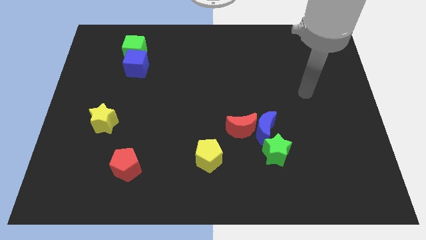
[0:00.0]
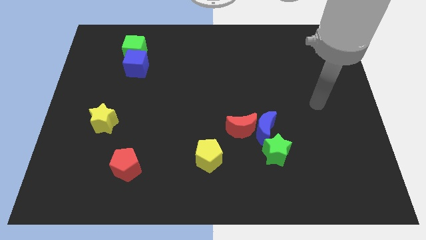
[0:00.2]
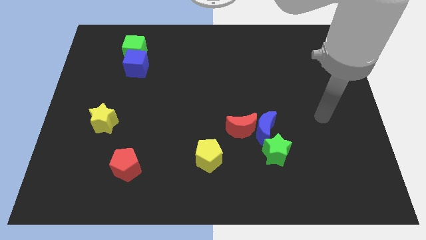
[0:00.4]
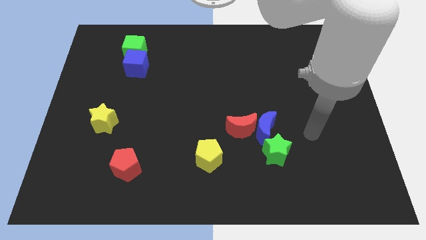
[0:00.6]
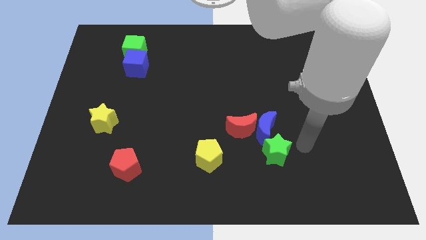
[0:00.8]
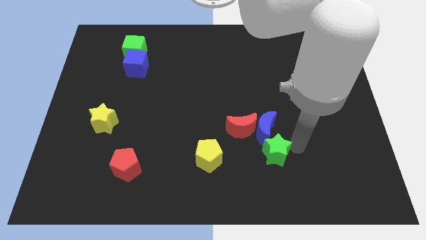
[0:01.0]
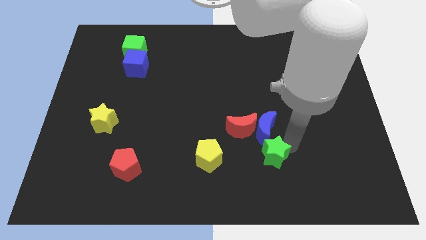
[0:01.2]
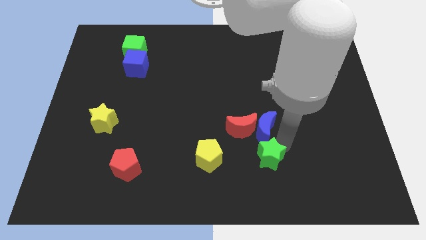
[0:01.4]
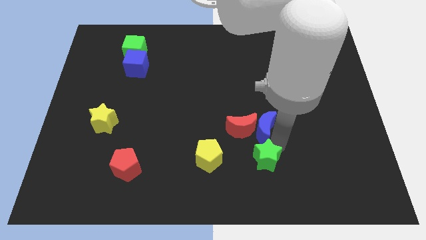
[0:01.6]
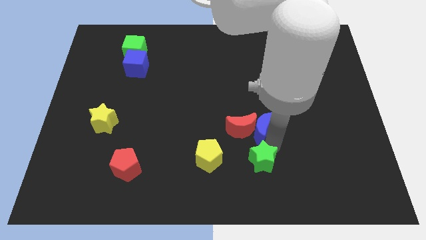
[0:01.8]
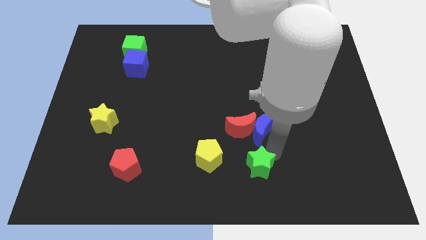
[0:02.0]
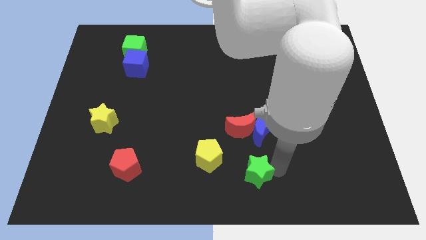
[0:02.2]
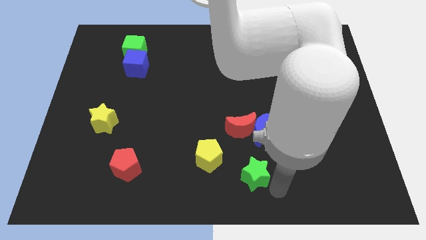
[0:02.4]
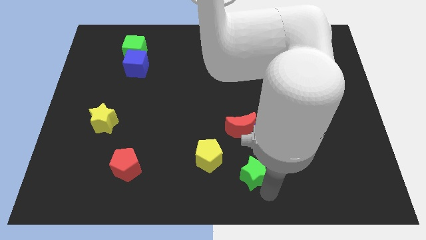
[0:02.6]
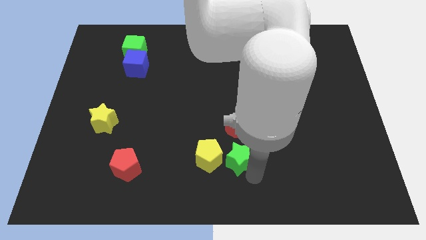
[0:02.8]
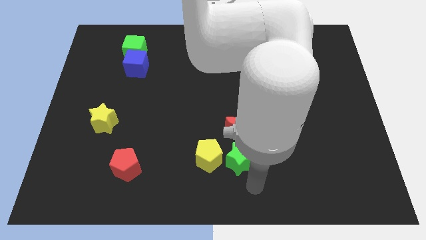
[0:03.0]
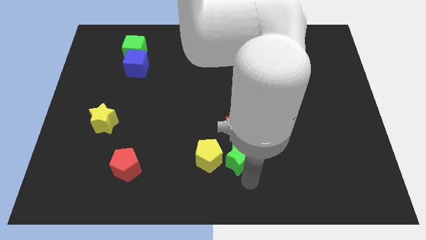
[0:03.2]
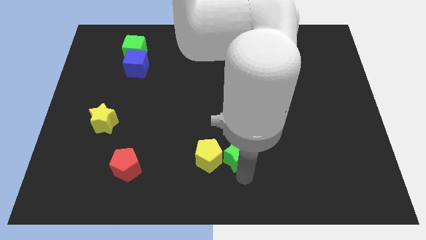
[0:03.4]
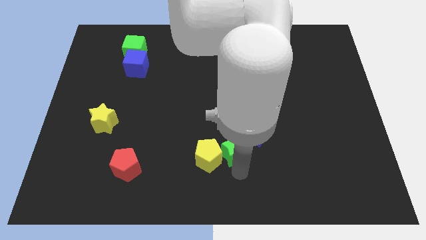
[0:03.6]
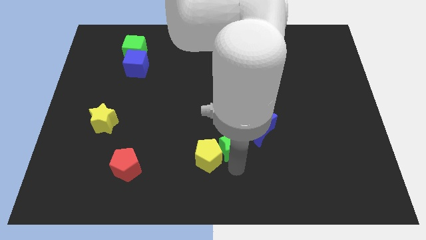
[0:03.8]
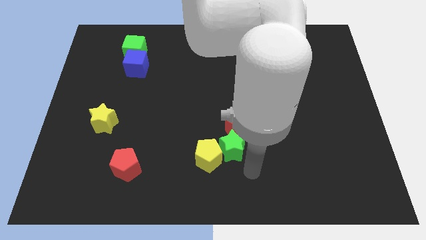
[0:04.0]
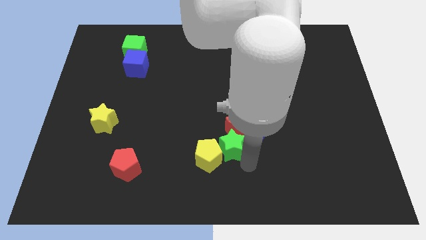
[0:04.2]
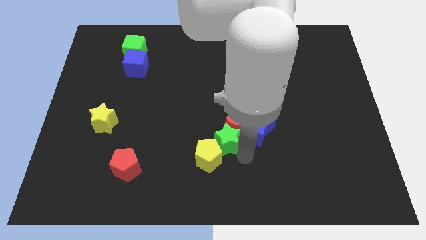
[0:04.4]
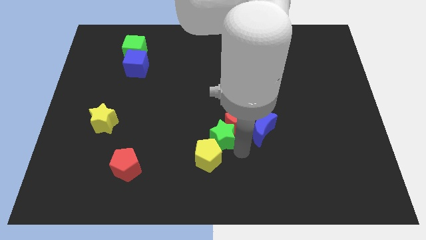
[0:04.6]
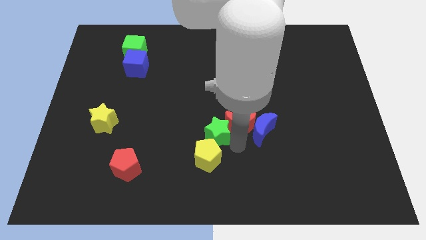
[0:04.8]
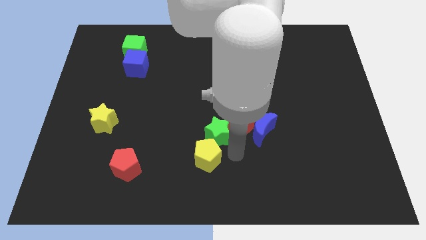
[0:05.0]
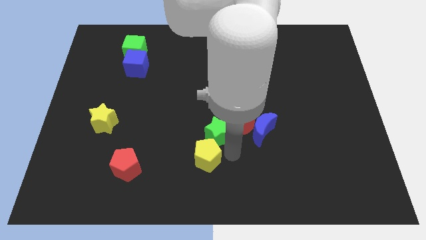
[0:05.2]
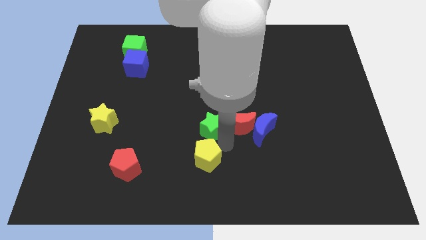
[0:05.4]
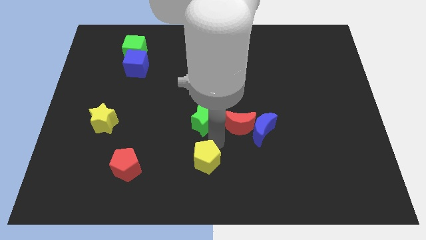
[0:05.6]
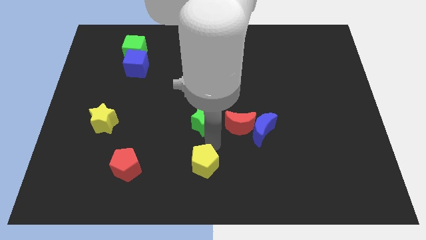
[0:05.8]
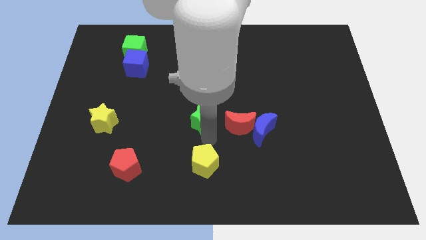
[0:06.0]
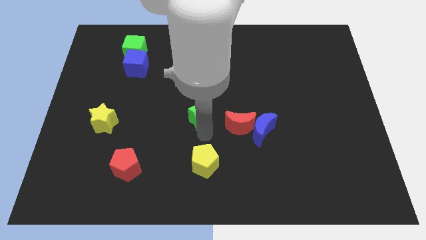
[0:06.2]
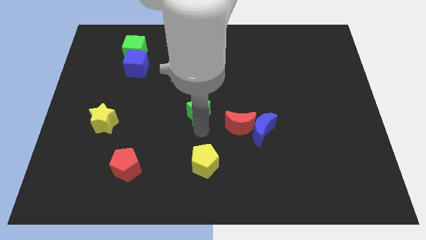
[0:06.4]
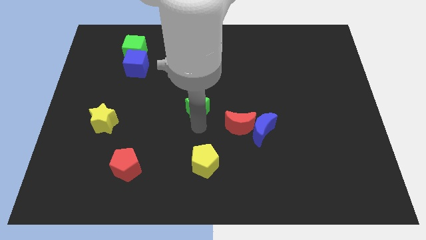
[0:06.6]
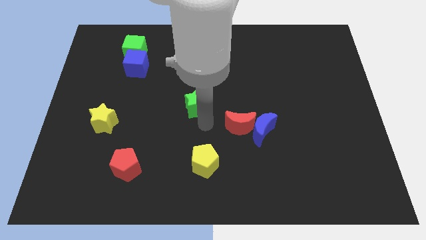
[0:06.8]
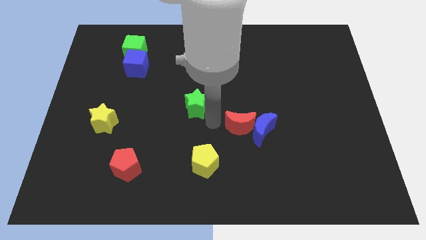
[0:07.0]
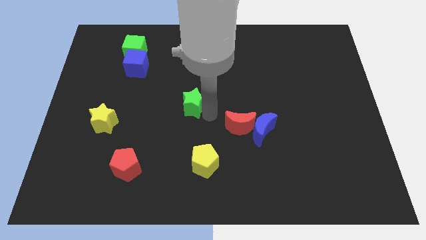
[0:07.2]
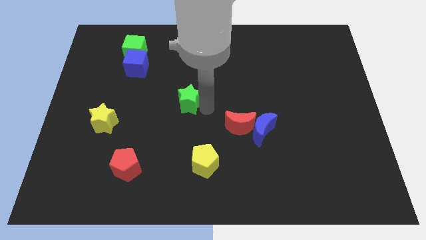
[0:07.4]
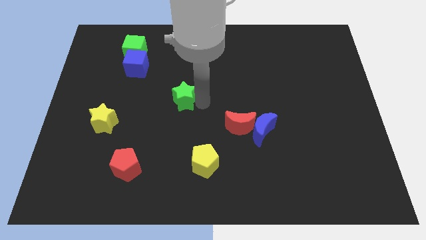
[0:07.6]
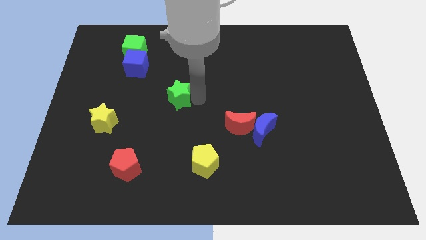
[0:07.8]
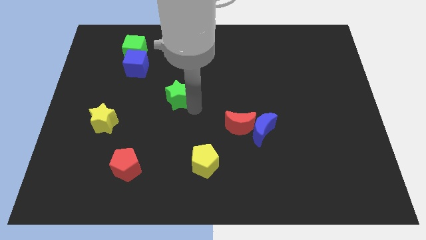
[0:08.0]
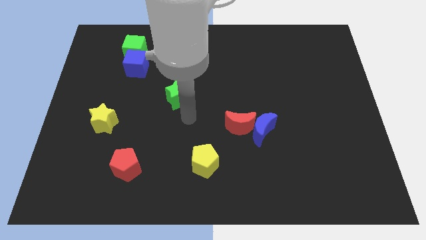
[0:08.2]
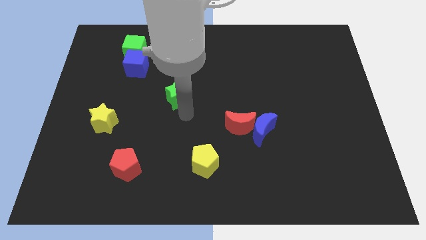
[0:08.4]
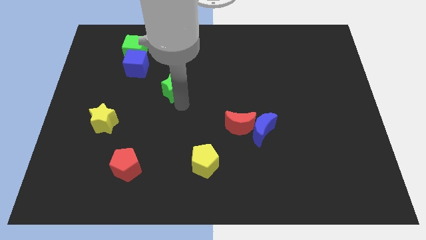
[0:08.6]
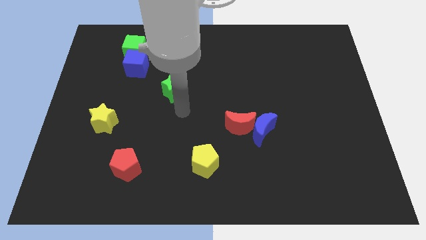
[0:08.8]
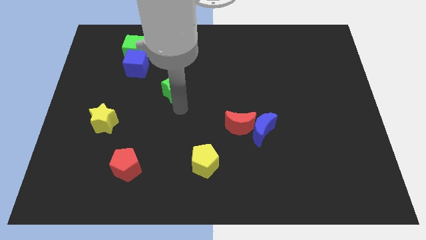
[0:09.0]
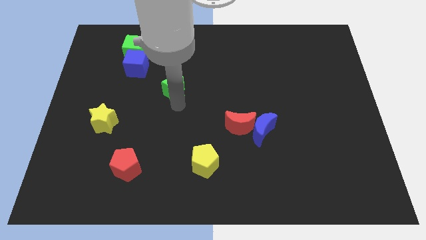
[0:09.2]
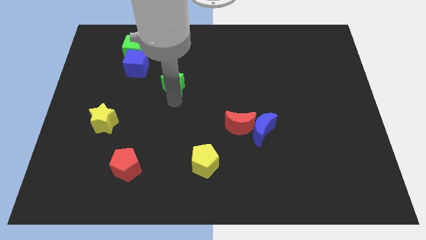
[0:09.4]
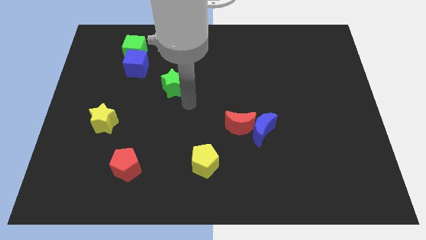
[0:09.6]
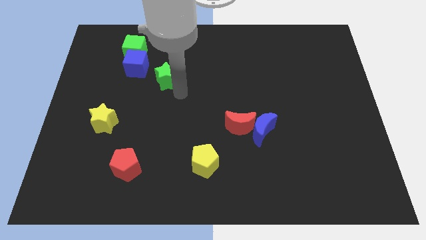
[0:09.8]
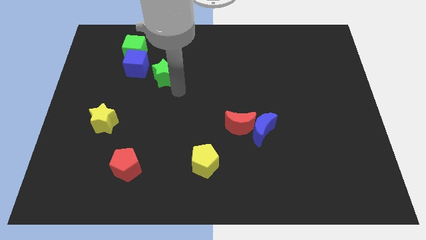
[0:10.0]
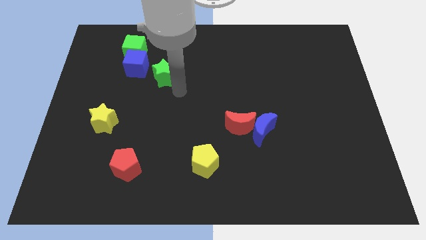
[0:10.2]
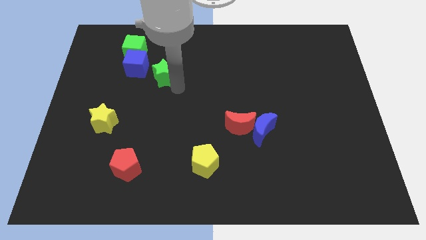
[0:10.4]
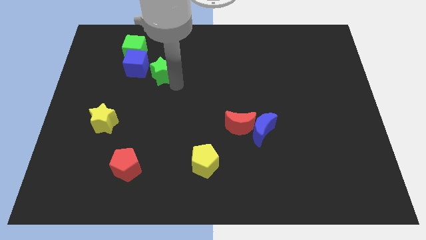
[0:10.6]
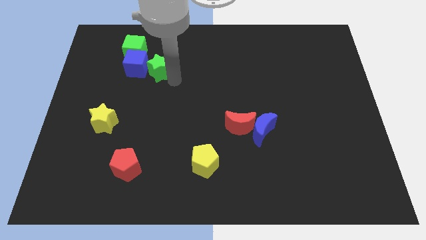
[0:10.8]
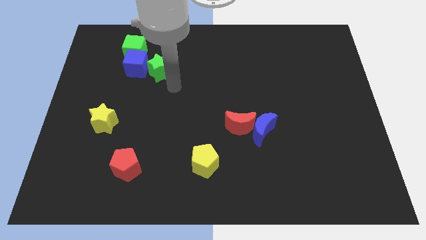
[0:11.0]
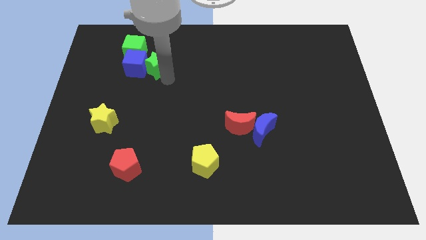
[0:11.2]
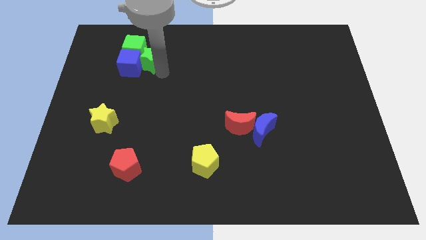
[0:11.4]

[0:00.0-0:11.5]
move the green star next to the green cube

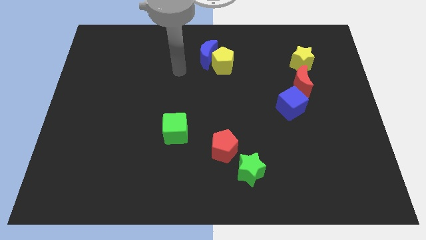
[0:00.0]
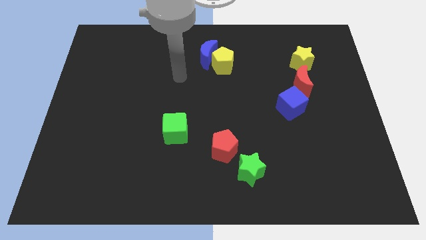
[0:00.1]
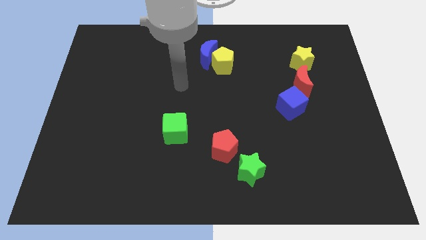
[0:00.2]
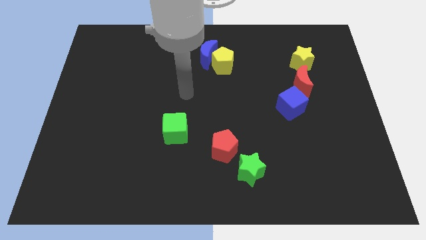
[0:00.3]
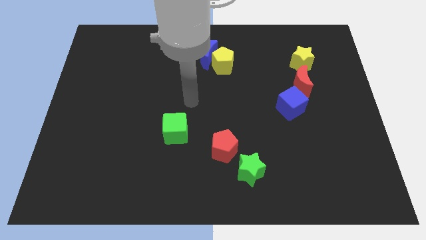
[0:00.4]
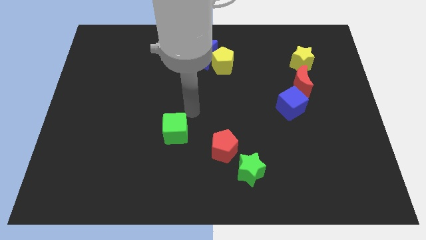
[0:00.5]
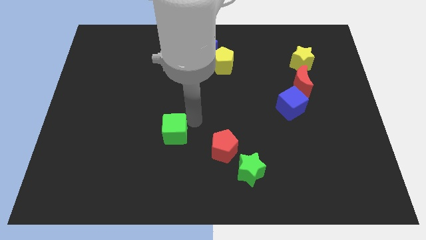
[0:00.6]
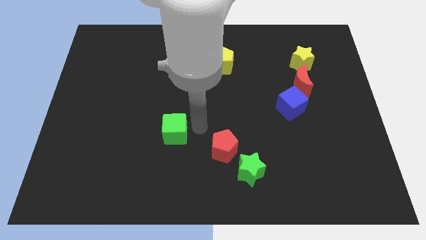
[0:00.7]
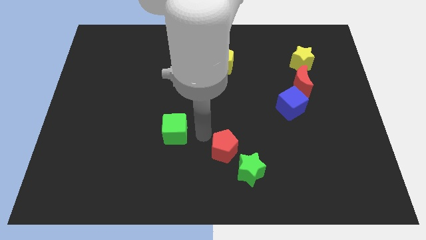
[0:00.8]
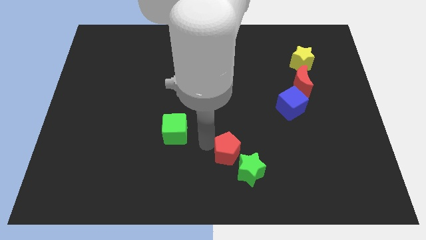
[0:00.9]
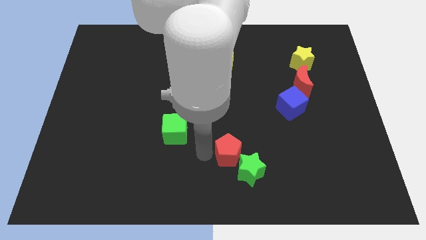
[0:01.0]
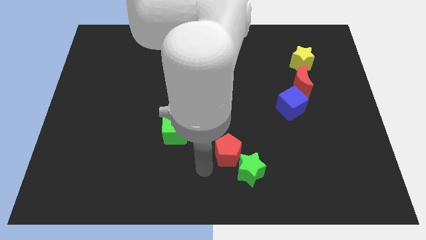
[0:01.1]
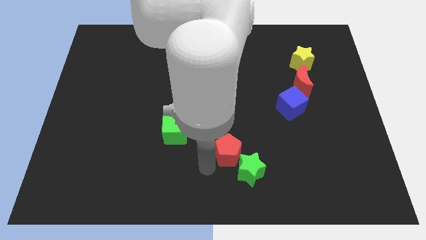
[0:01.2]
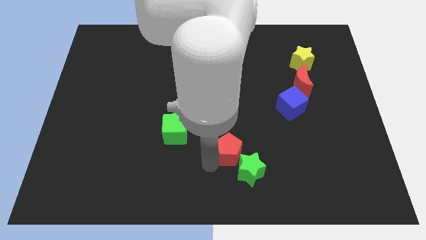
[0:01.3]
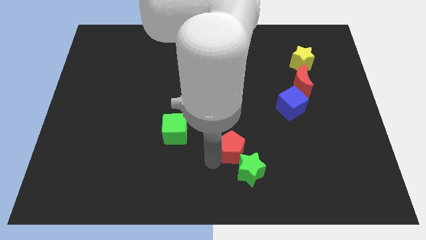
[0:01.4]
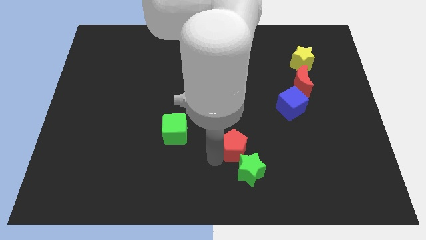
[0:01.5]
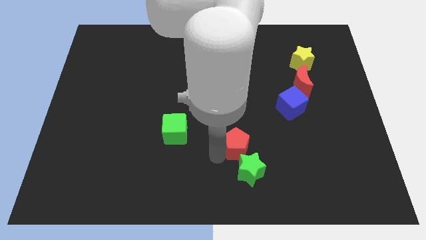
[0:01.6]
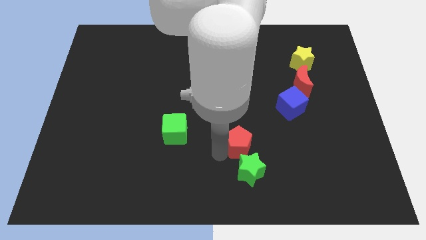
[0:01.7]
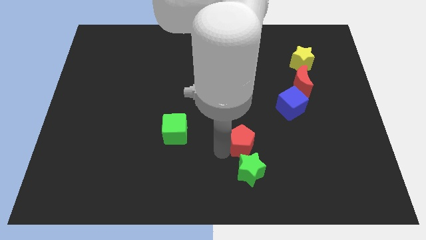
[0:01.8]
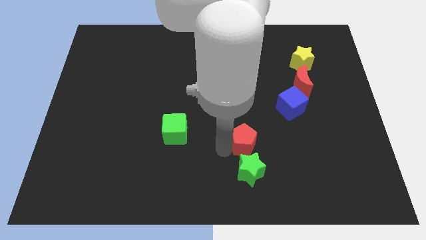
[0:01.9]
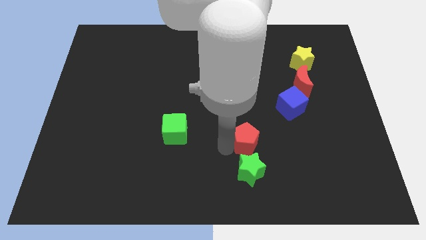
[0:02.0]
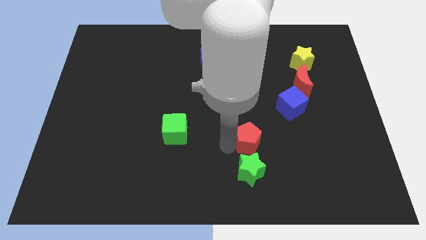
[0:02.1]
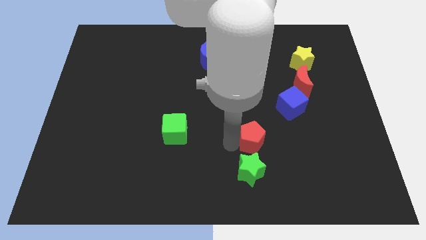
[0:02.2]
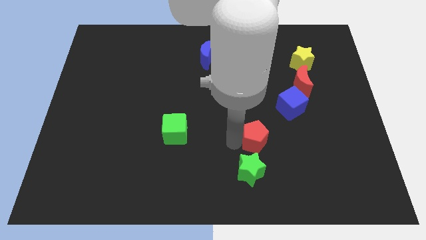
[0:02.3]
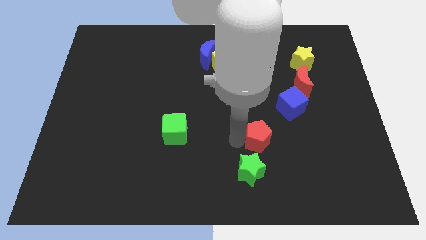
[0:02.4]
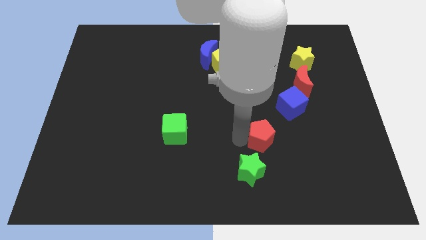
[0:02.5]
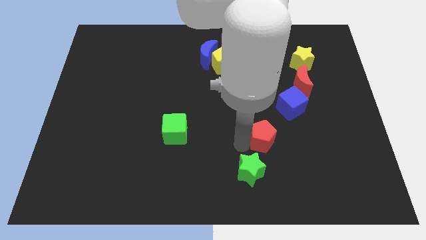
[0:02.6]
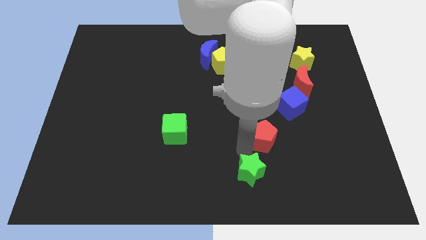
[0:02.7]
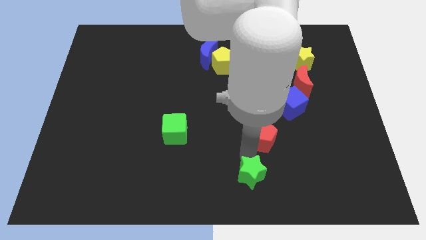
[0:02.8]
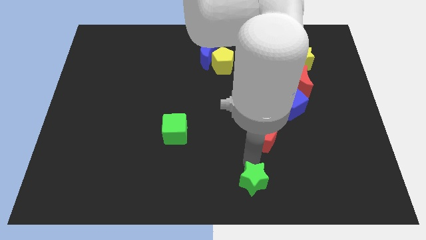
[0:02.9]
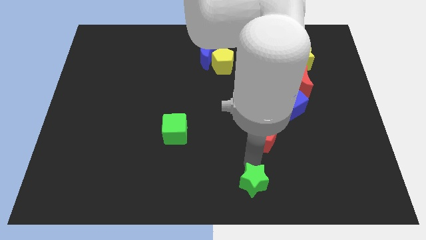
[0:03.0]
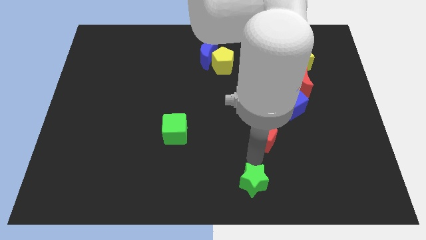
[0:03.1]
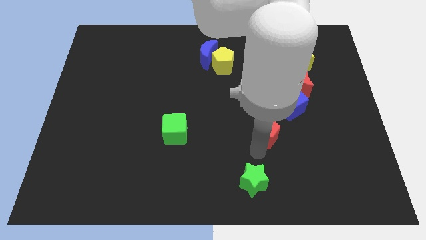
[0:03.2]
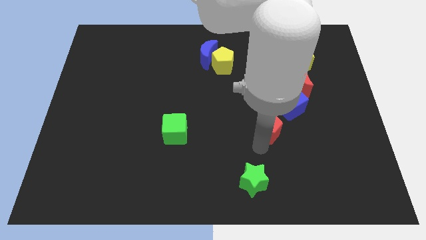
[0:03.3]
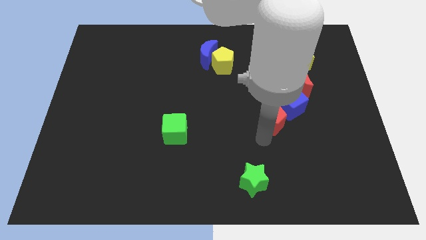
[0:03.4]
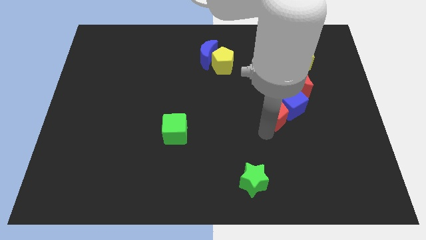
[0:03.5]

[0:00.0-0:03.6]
slide the red pentagon next to the blue cube
